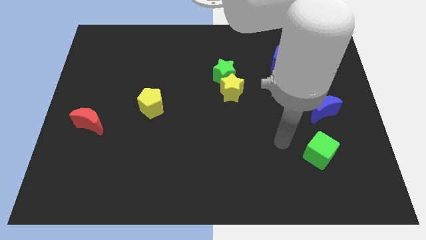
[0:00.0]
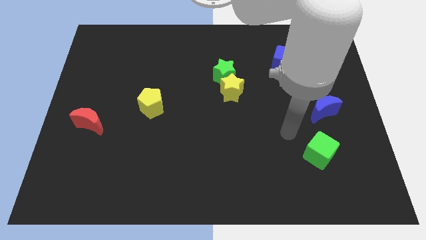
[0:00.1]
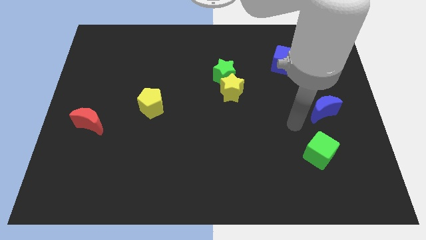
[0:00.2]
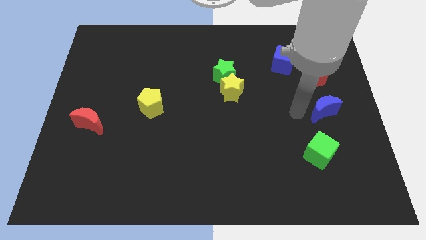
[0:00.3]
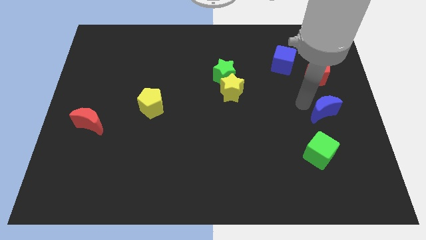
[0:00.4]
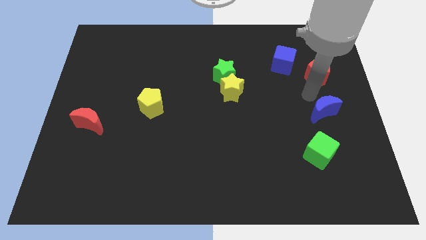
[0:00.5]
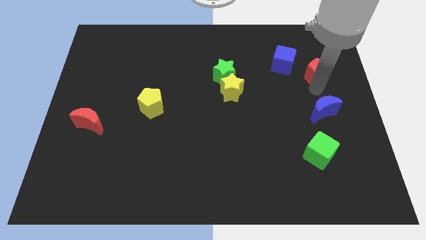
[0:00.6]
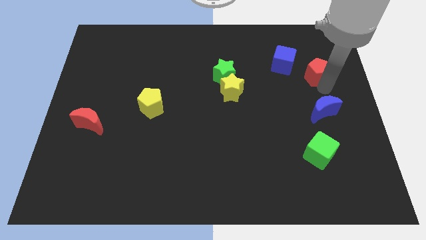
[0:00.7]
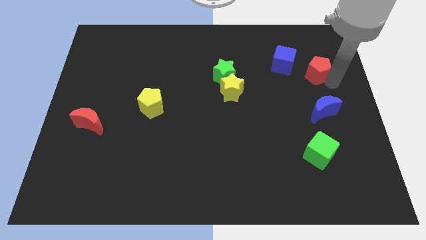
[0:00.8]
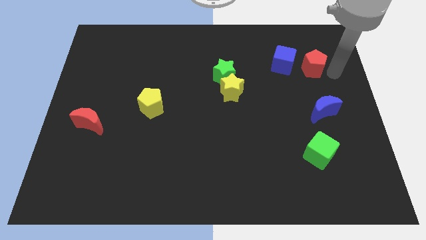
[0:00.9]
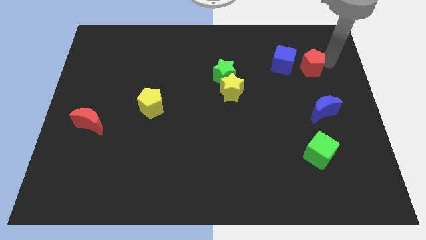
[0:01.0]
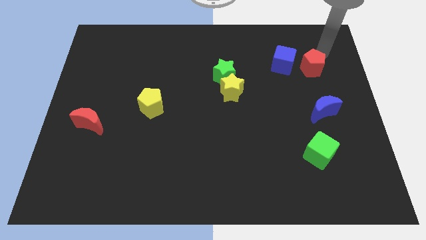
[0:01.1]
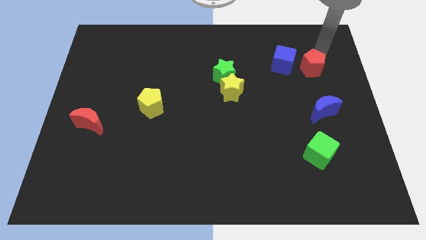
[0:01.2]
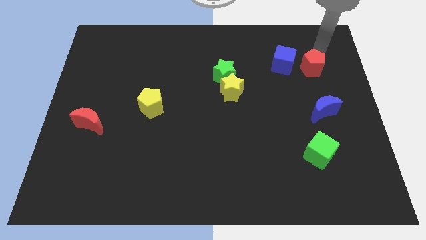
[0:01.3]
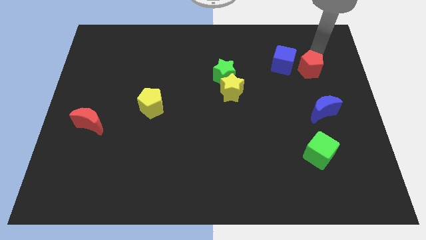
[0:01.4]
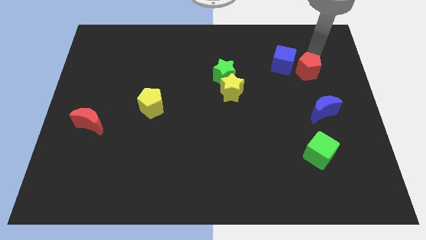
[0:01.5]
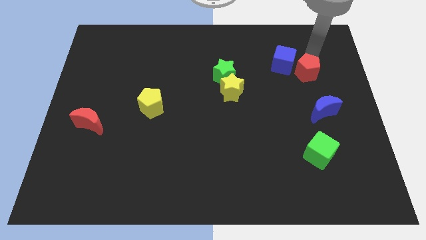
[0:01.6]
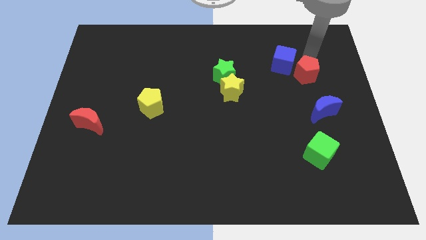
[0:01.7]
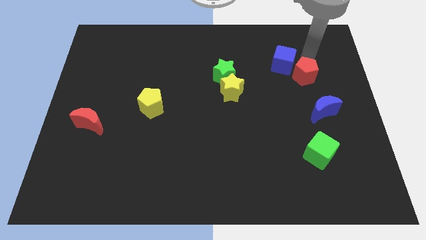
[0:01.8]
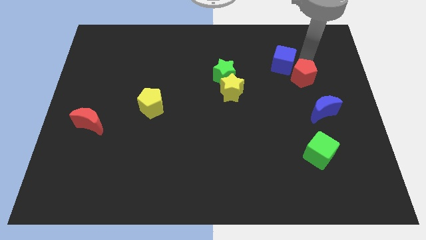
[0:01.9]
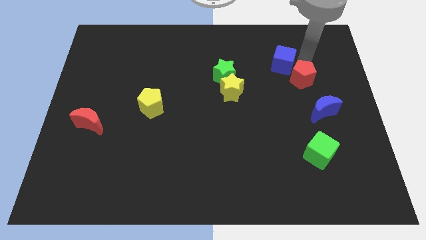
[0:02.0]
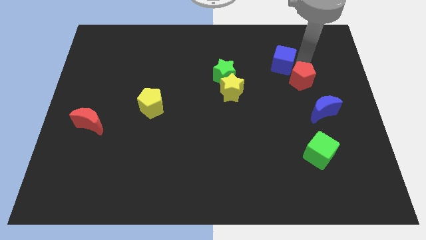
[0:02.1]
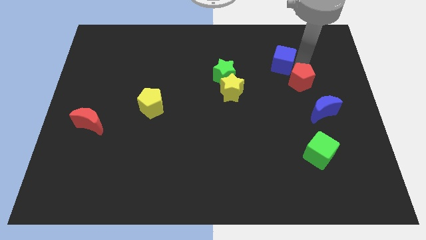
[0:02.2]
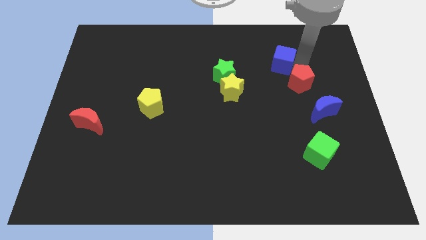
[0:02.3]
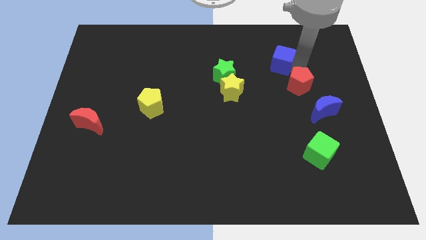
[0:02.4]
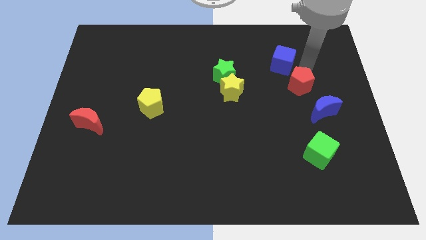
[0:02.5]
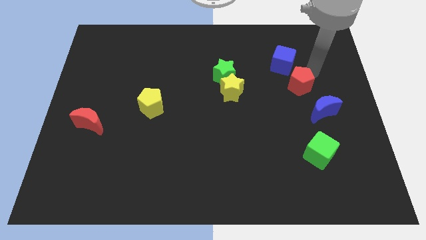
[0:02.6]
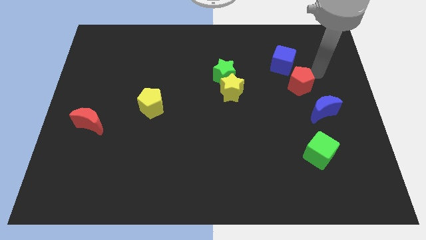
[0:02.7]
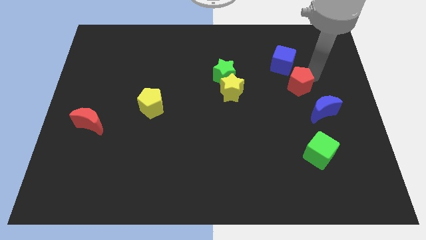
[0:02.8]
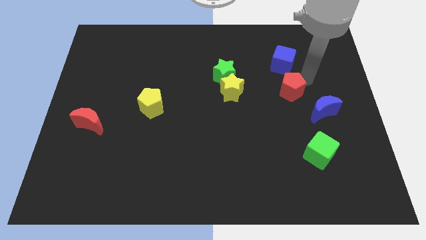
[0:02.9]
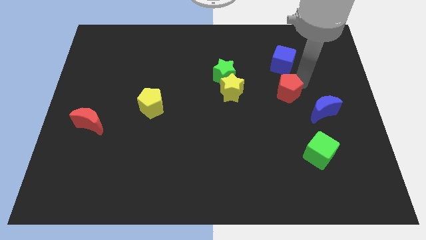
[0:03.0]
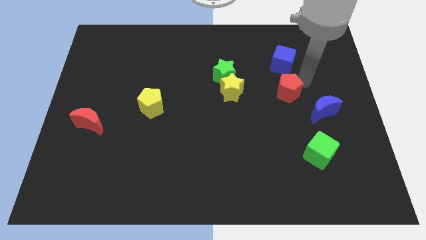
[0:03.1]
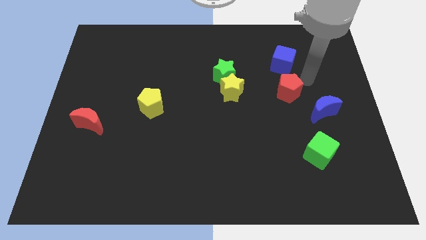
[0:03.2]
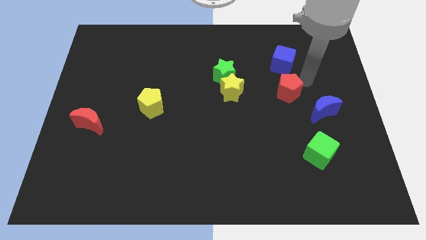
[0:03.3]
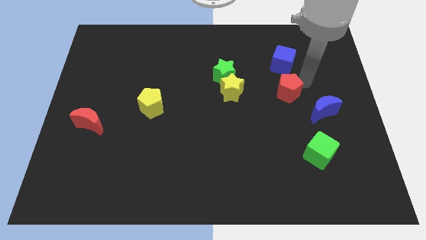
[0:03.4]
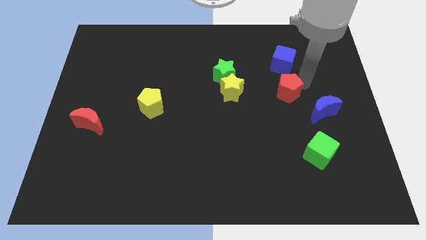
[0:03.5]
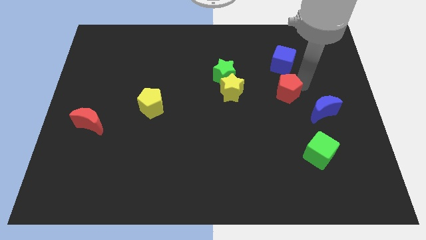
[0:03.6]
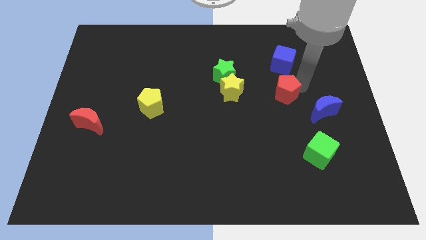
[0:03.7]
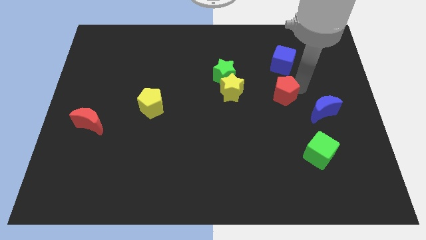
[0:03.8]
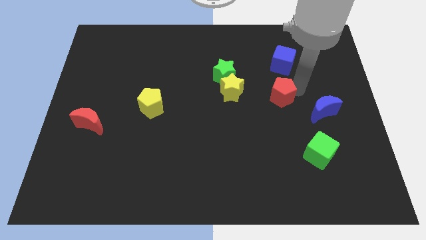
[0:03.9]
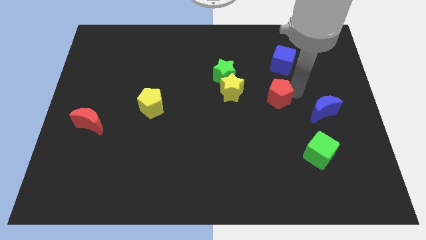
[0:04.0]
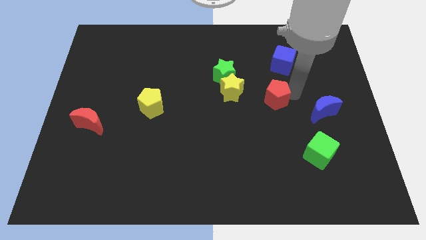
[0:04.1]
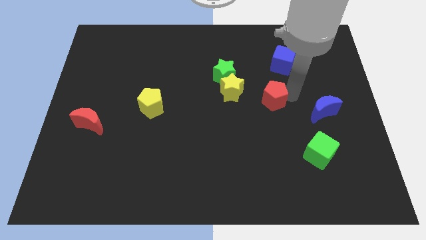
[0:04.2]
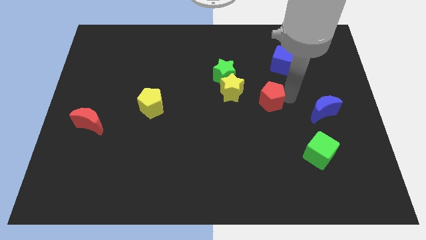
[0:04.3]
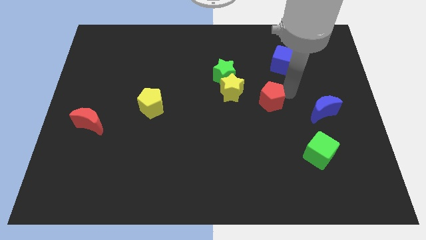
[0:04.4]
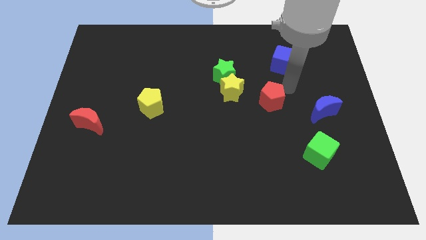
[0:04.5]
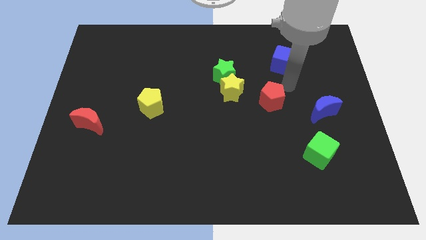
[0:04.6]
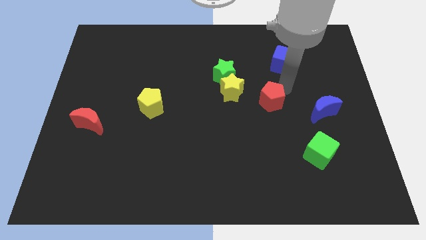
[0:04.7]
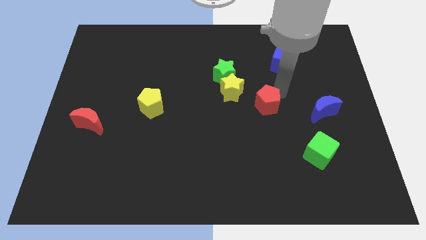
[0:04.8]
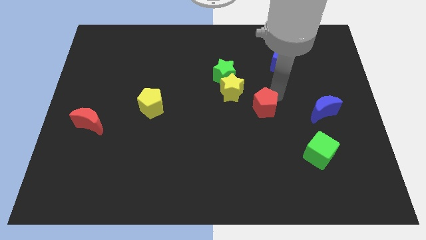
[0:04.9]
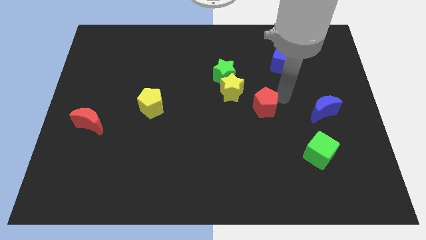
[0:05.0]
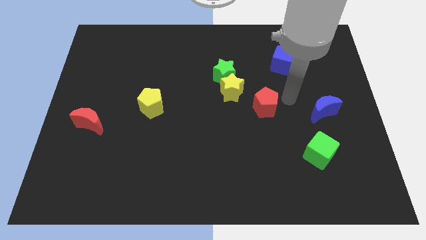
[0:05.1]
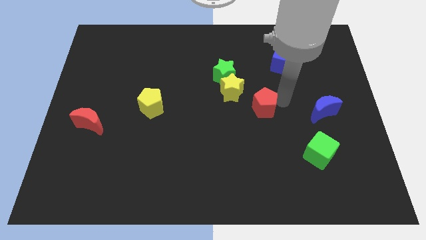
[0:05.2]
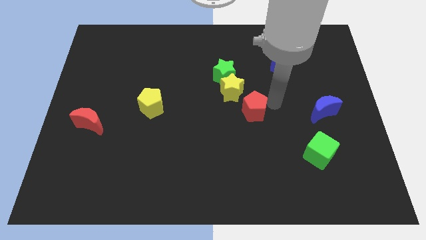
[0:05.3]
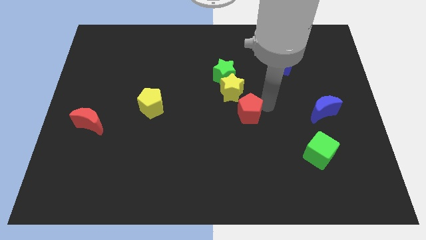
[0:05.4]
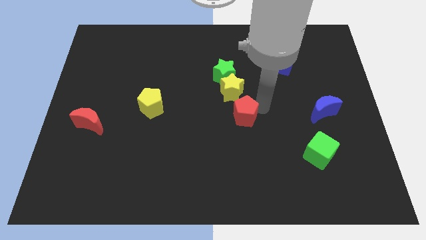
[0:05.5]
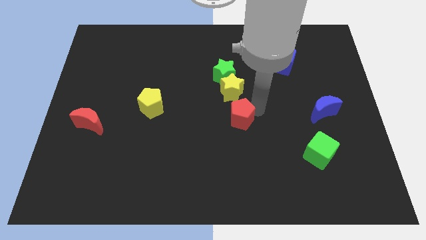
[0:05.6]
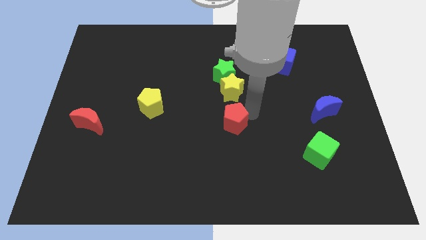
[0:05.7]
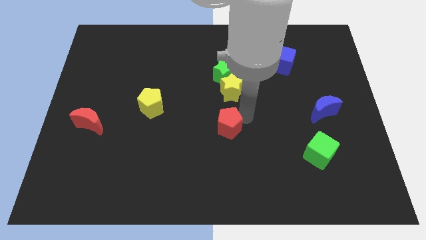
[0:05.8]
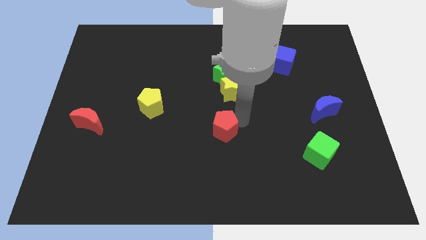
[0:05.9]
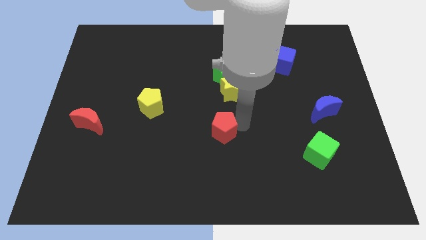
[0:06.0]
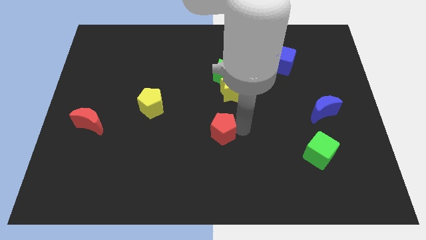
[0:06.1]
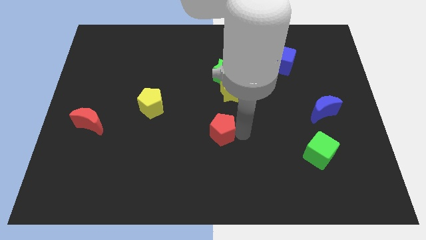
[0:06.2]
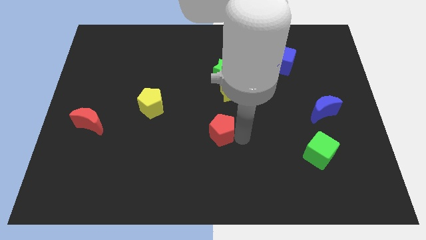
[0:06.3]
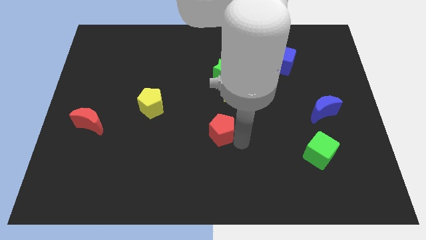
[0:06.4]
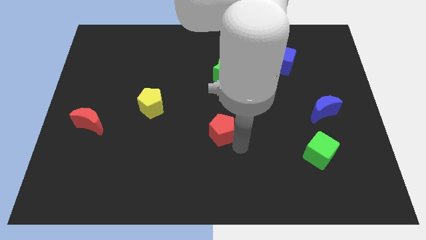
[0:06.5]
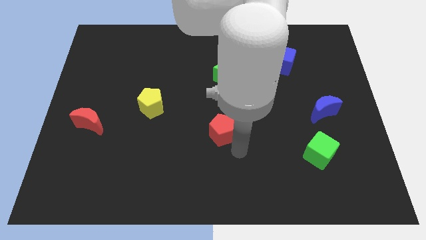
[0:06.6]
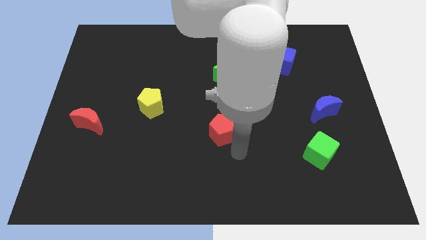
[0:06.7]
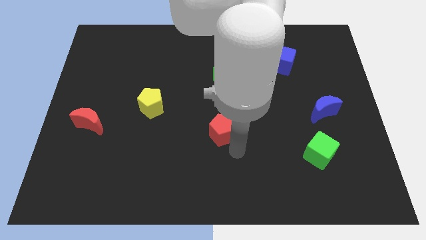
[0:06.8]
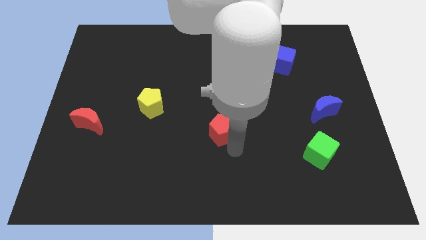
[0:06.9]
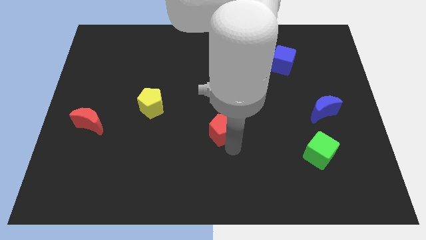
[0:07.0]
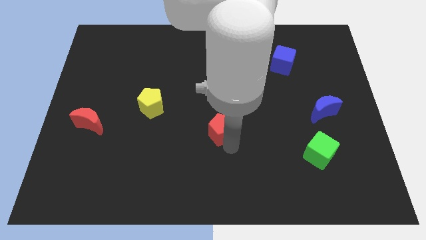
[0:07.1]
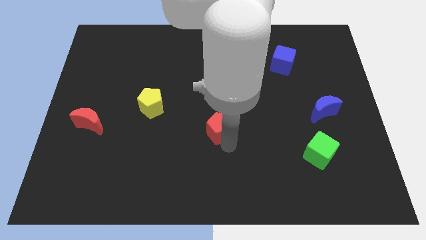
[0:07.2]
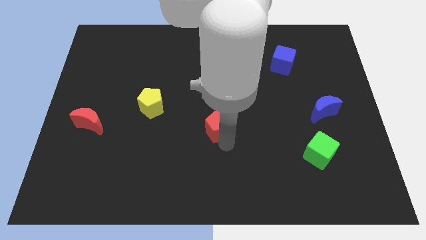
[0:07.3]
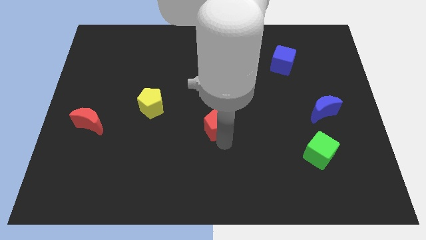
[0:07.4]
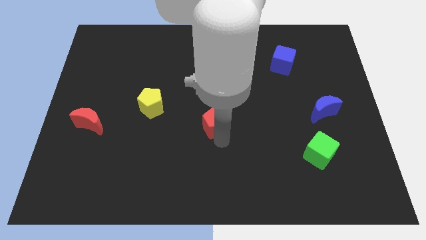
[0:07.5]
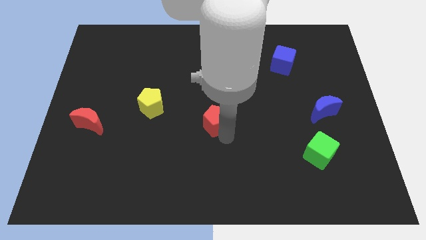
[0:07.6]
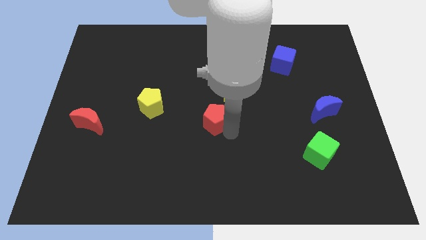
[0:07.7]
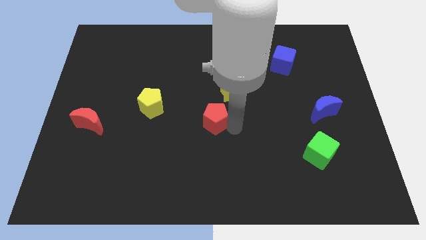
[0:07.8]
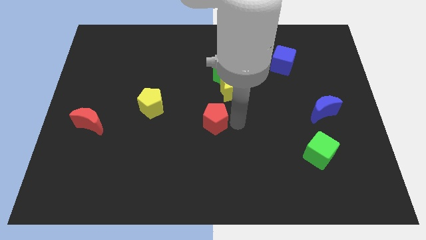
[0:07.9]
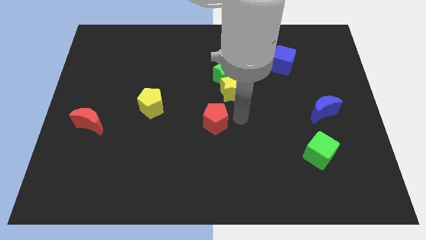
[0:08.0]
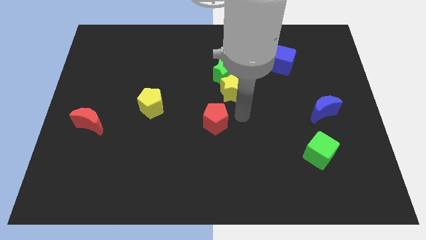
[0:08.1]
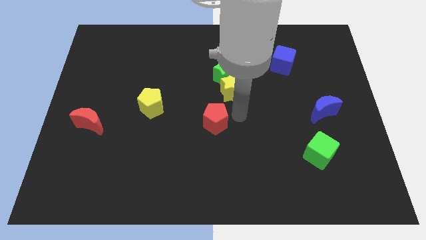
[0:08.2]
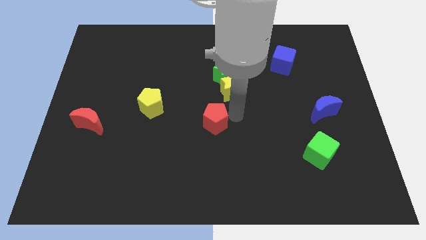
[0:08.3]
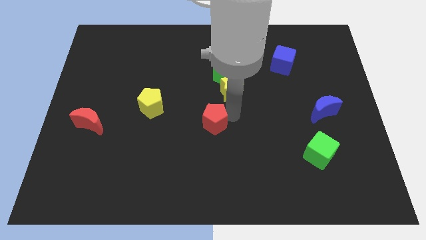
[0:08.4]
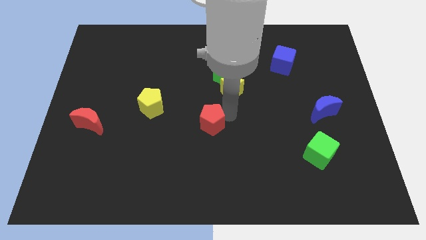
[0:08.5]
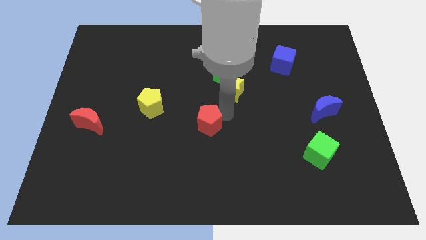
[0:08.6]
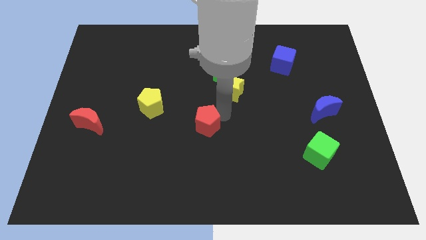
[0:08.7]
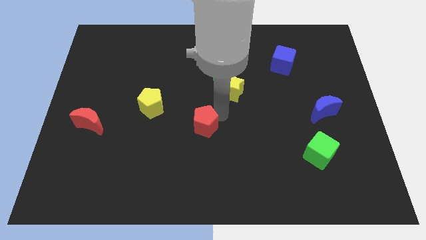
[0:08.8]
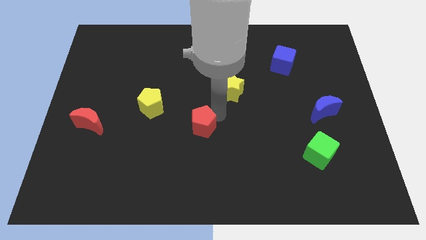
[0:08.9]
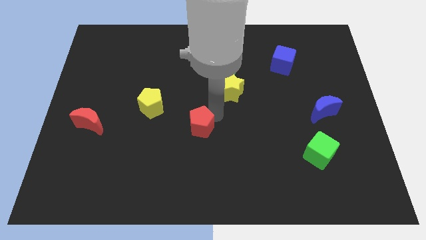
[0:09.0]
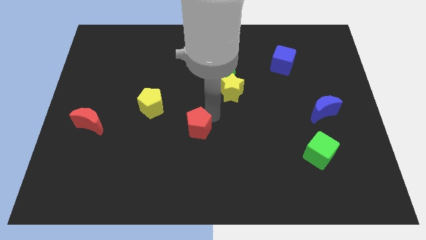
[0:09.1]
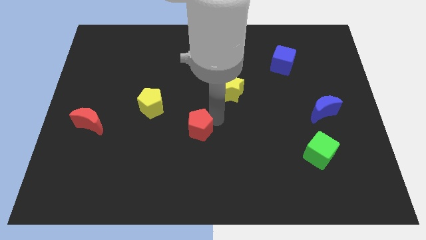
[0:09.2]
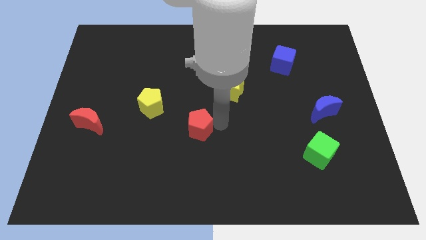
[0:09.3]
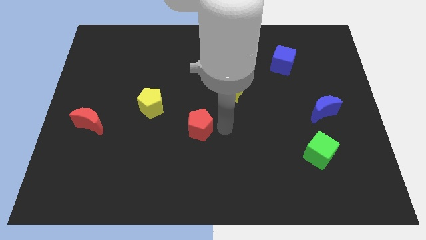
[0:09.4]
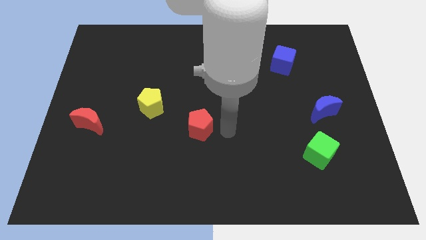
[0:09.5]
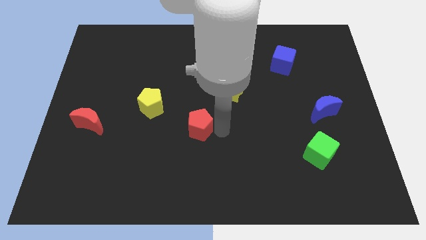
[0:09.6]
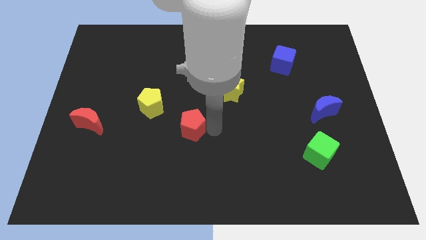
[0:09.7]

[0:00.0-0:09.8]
move the red pentagon to the bottom right of the yellow pentagon
